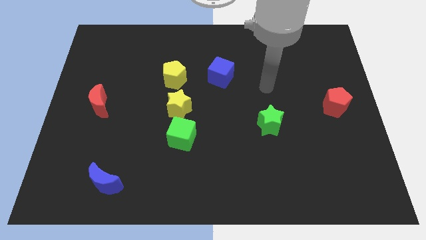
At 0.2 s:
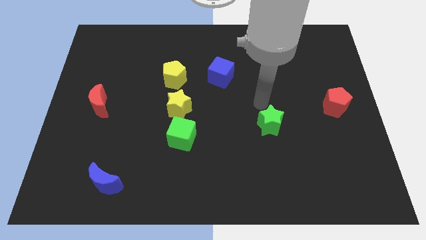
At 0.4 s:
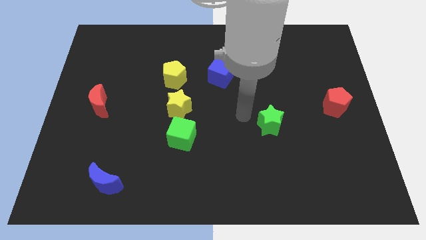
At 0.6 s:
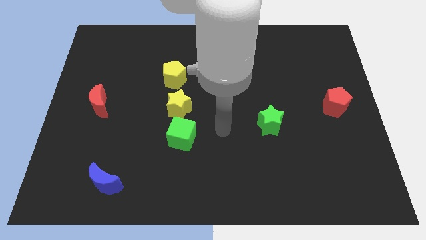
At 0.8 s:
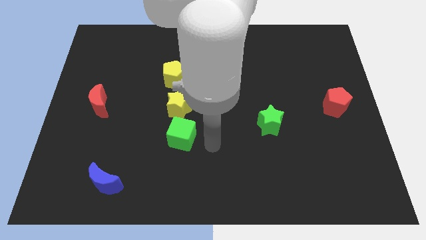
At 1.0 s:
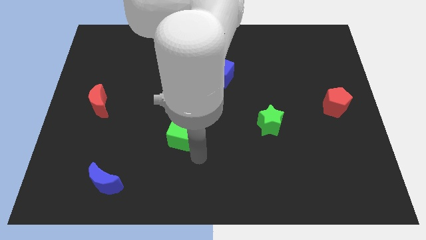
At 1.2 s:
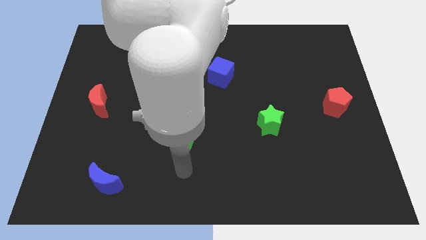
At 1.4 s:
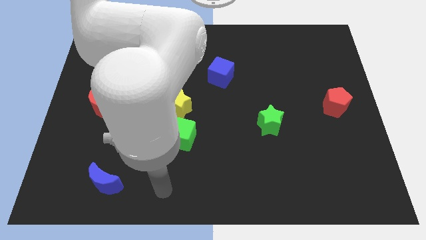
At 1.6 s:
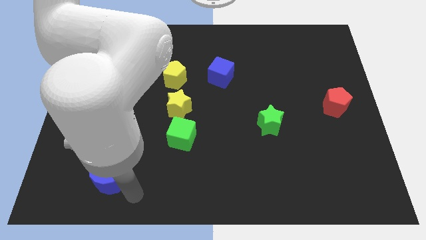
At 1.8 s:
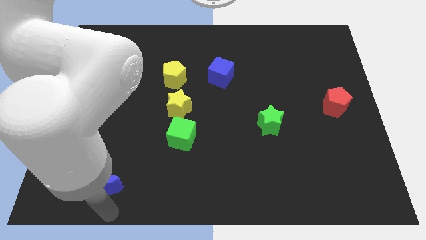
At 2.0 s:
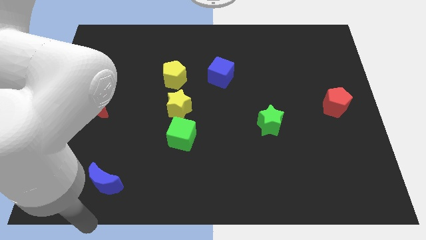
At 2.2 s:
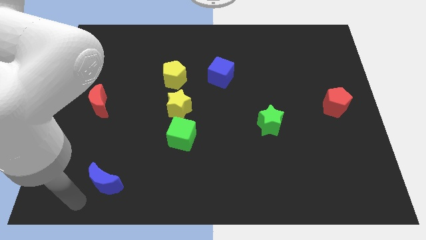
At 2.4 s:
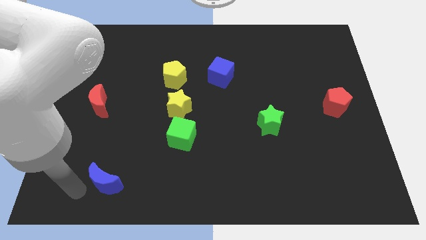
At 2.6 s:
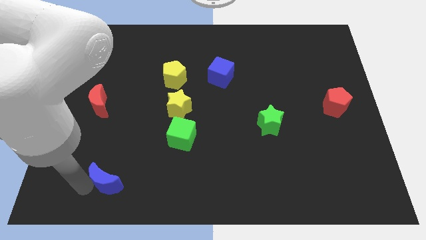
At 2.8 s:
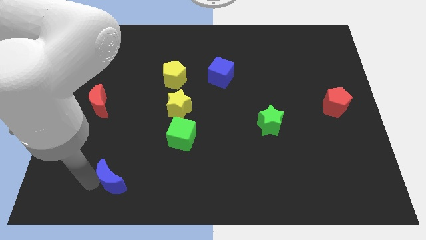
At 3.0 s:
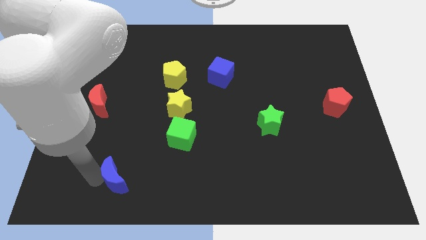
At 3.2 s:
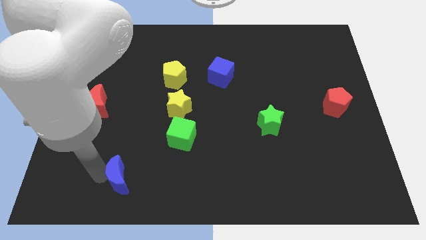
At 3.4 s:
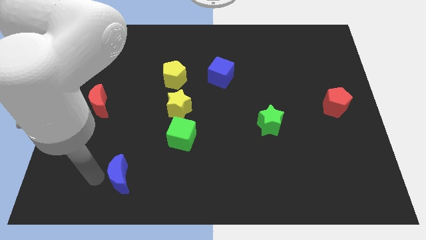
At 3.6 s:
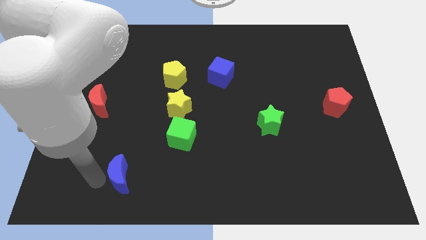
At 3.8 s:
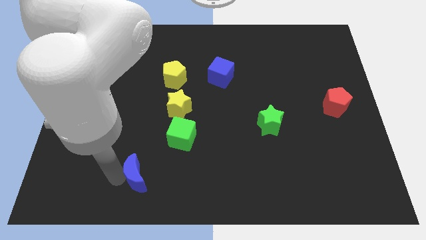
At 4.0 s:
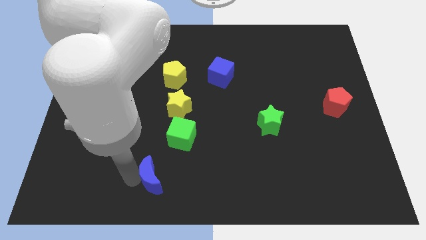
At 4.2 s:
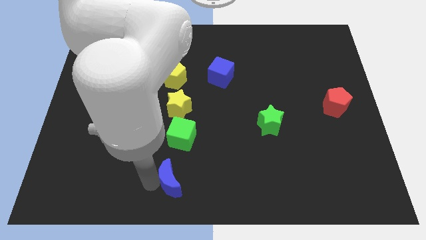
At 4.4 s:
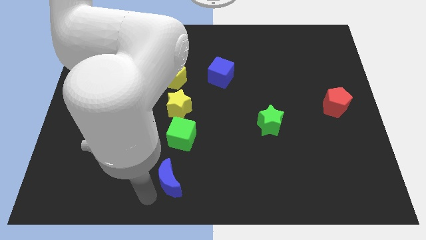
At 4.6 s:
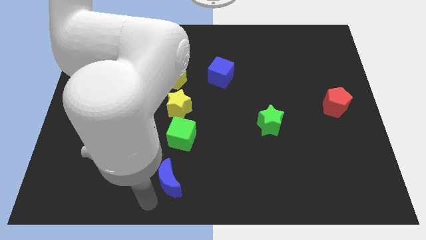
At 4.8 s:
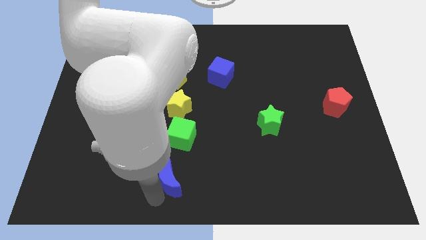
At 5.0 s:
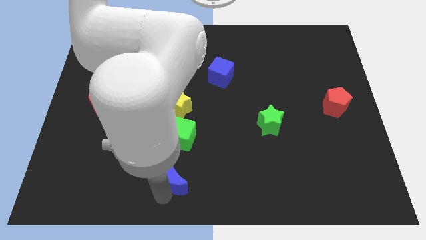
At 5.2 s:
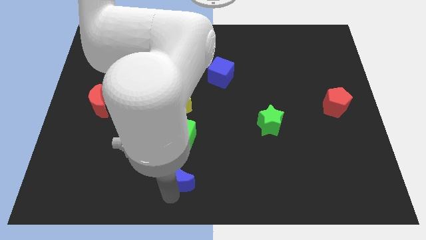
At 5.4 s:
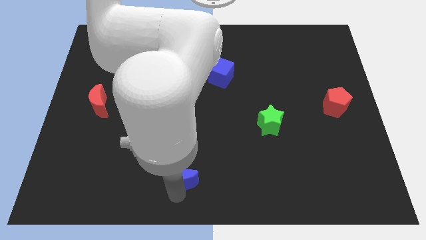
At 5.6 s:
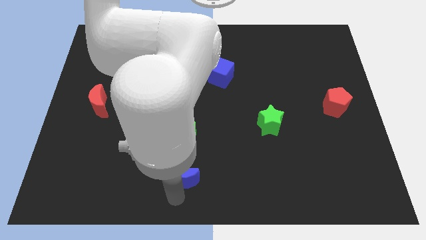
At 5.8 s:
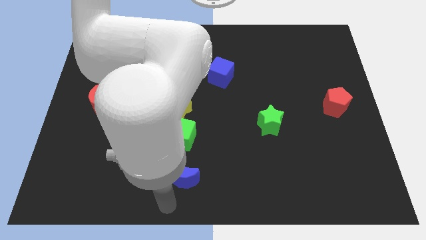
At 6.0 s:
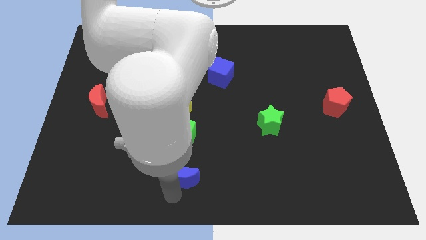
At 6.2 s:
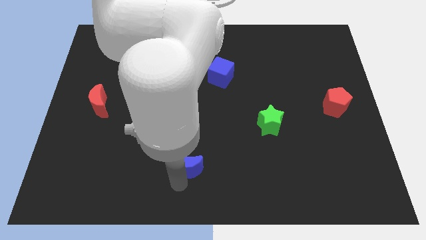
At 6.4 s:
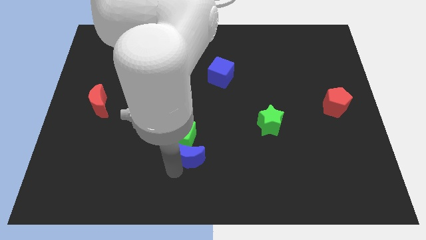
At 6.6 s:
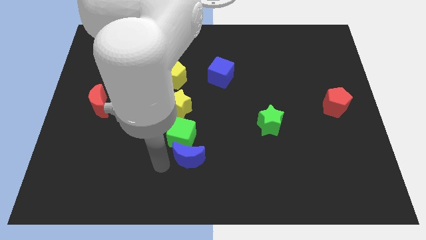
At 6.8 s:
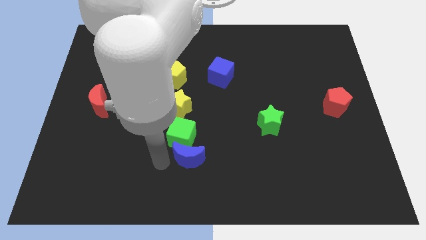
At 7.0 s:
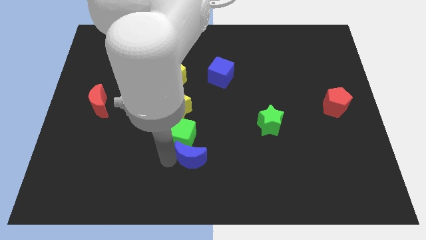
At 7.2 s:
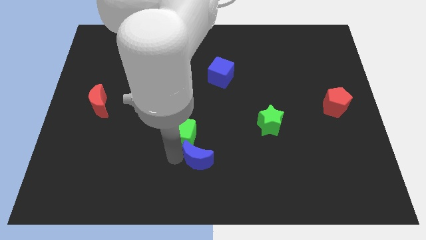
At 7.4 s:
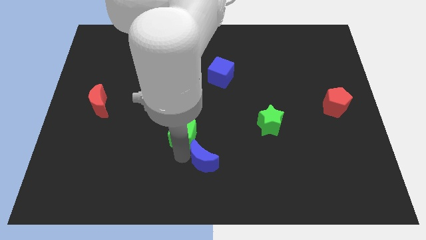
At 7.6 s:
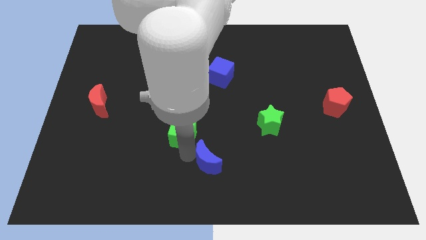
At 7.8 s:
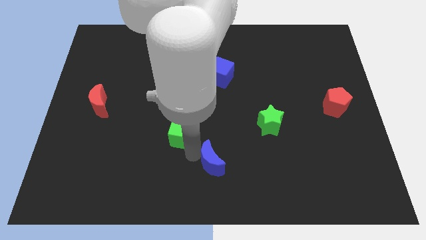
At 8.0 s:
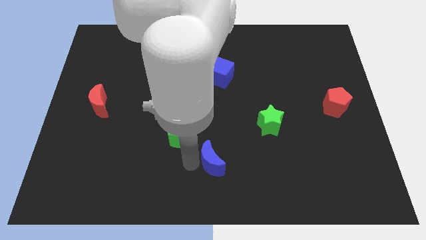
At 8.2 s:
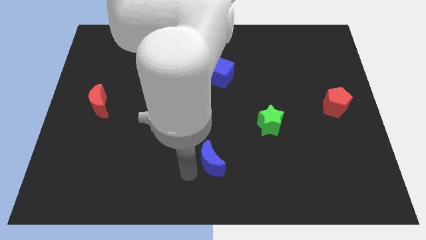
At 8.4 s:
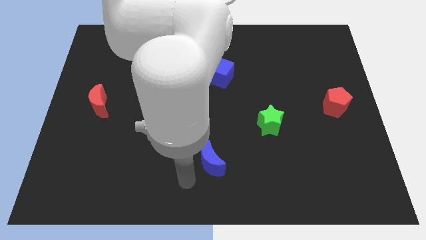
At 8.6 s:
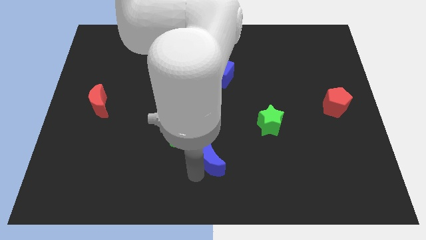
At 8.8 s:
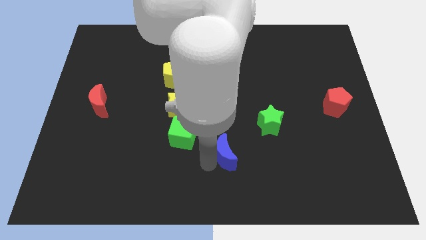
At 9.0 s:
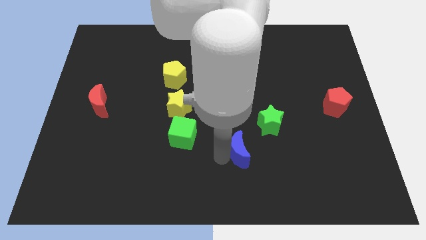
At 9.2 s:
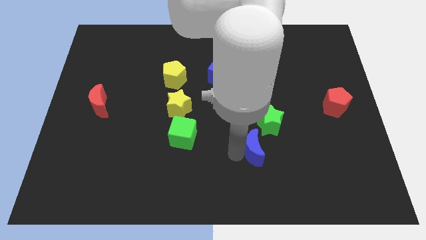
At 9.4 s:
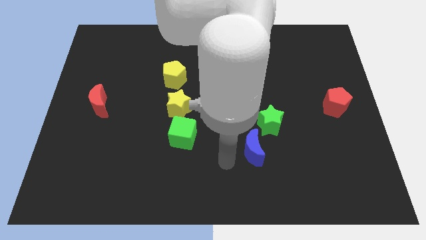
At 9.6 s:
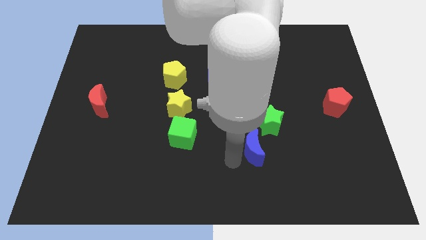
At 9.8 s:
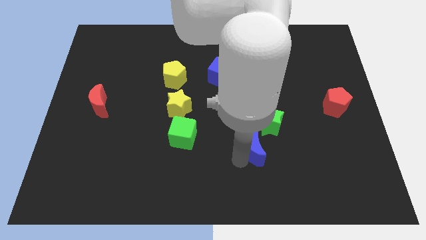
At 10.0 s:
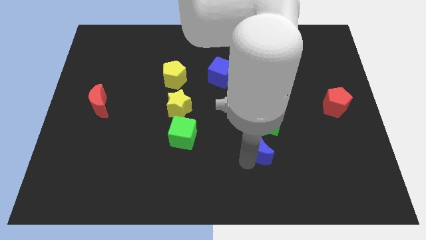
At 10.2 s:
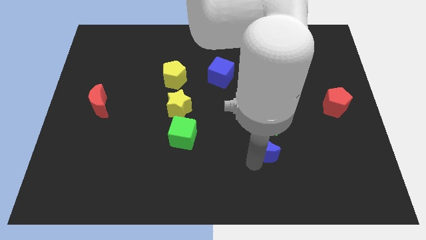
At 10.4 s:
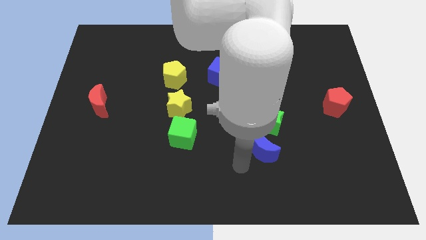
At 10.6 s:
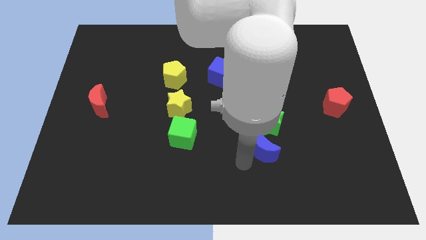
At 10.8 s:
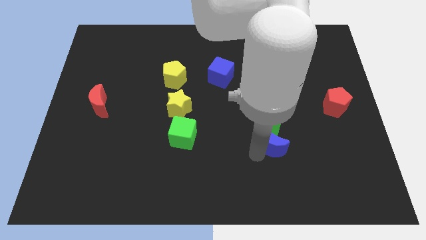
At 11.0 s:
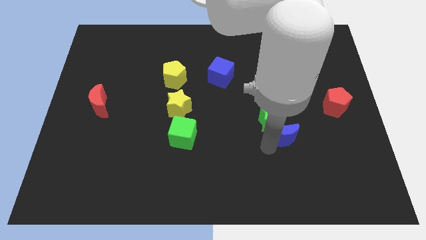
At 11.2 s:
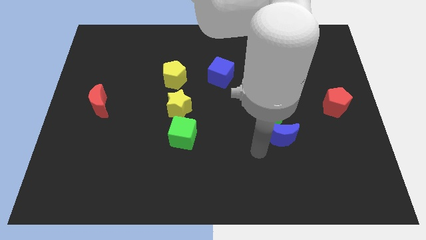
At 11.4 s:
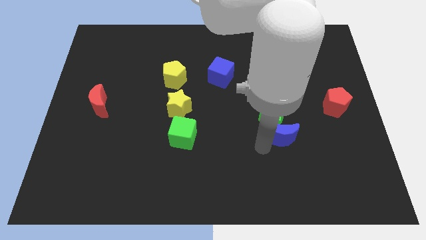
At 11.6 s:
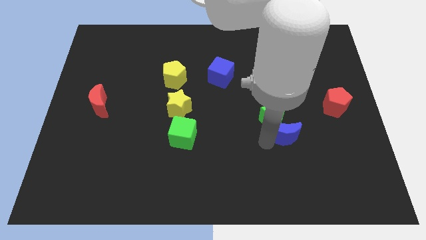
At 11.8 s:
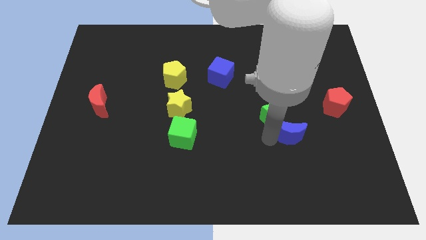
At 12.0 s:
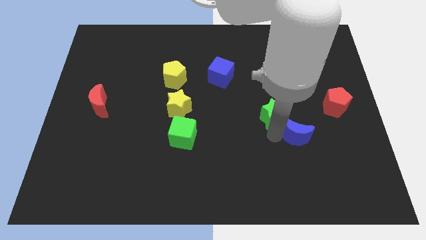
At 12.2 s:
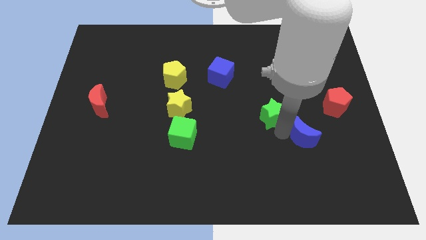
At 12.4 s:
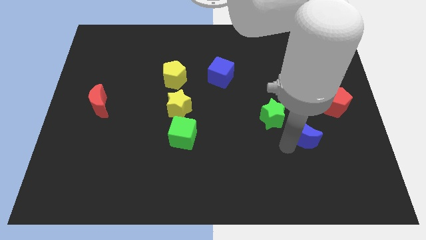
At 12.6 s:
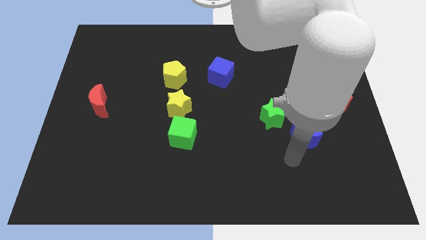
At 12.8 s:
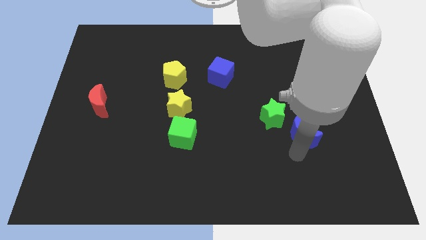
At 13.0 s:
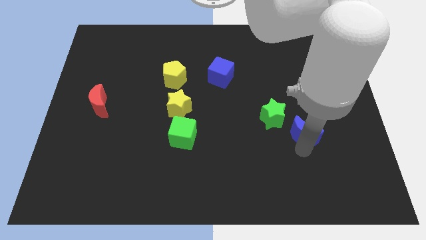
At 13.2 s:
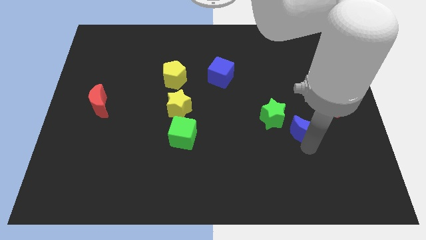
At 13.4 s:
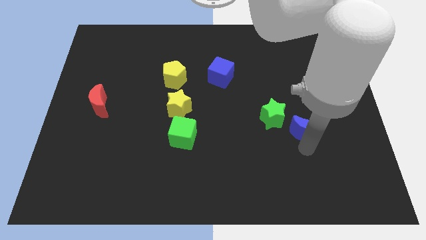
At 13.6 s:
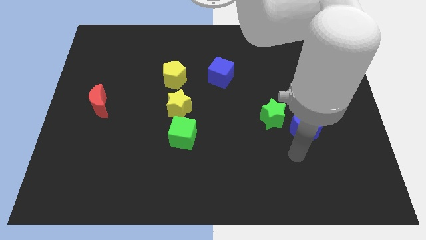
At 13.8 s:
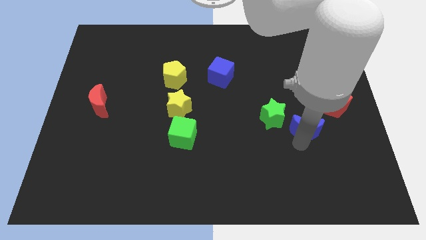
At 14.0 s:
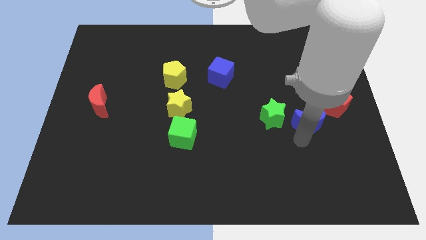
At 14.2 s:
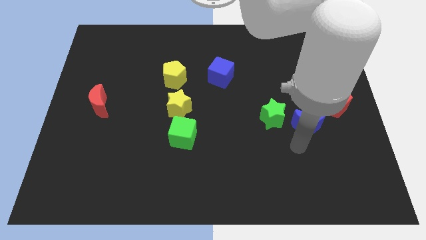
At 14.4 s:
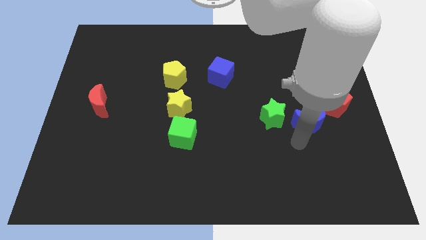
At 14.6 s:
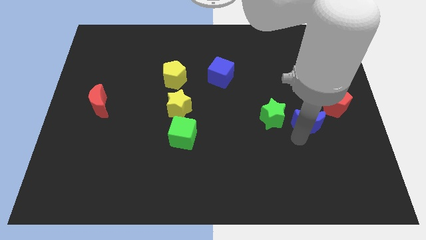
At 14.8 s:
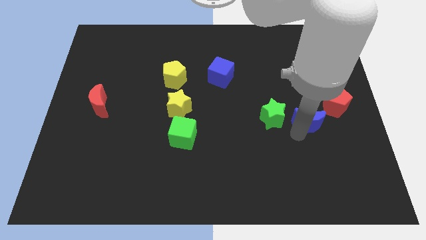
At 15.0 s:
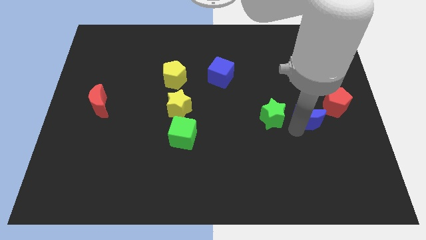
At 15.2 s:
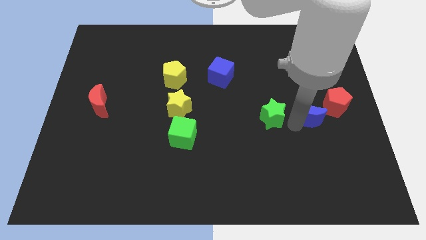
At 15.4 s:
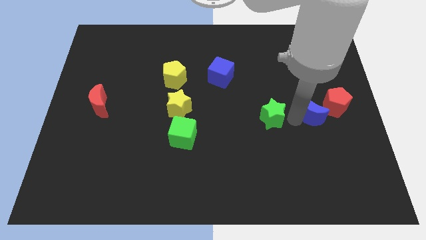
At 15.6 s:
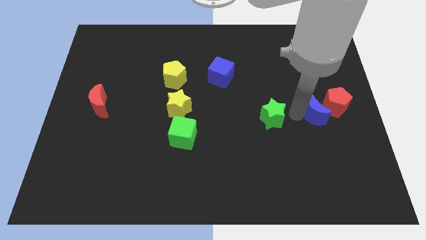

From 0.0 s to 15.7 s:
move the blue moon close to the red pentagon

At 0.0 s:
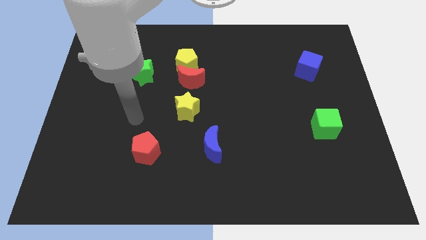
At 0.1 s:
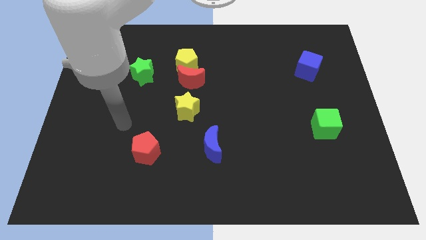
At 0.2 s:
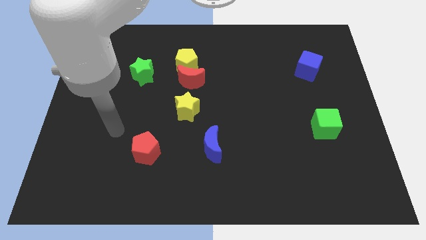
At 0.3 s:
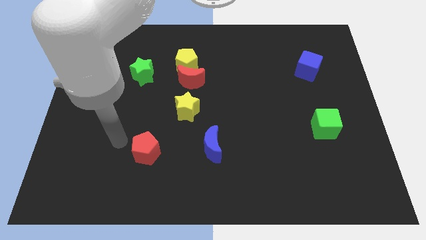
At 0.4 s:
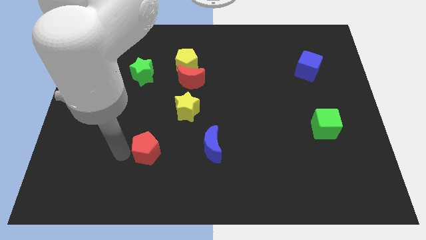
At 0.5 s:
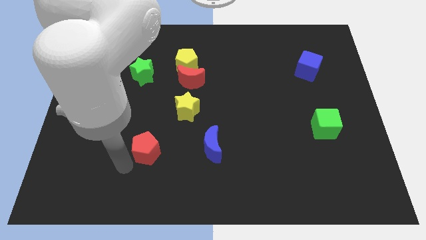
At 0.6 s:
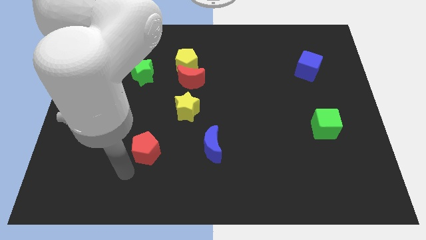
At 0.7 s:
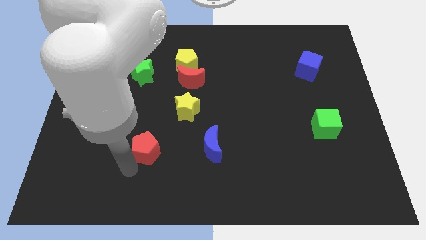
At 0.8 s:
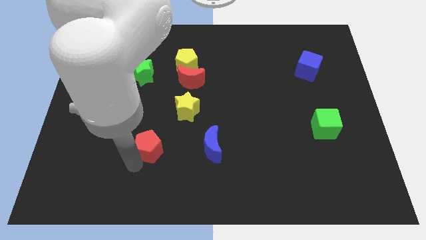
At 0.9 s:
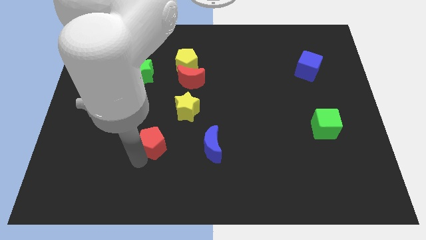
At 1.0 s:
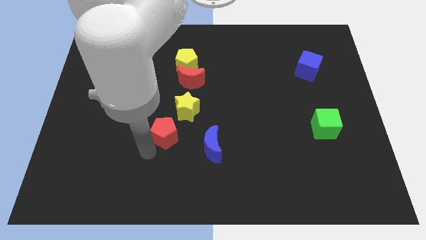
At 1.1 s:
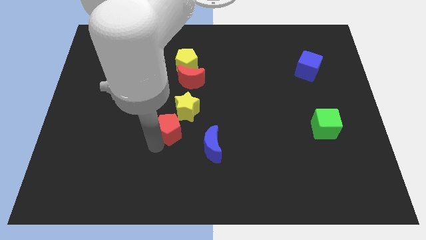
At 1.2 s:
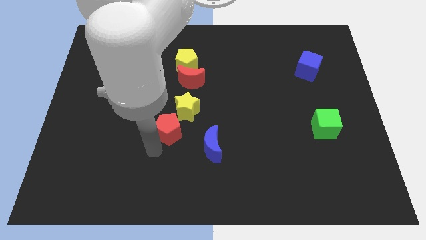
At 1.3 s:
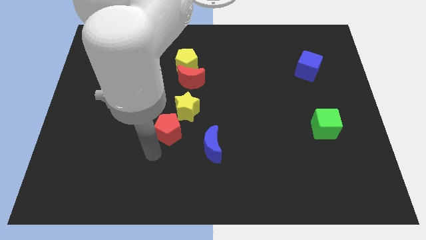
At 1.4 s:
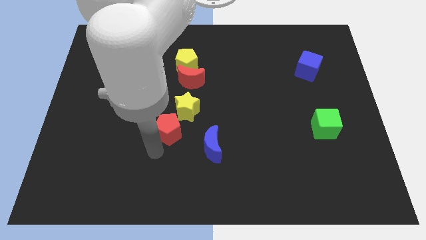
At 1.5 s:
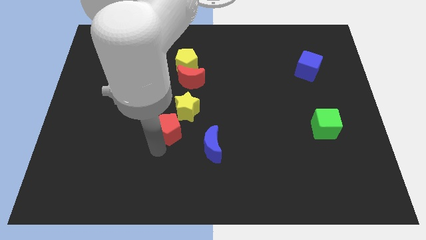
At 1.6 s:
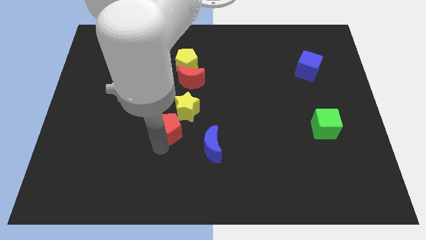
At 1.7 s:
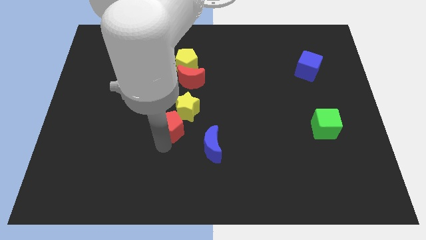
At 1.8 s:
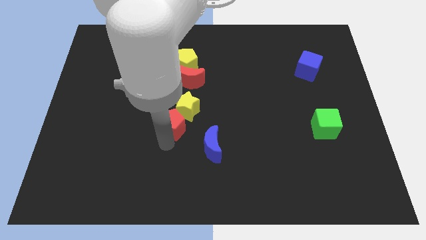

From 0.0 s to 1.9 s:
move the red pentagon to the yellow star
